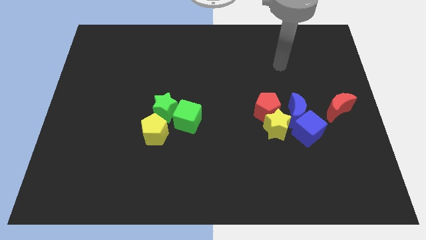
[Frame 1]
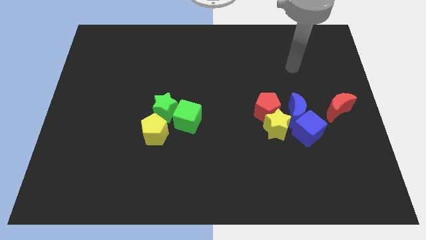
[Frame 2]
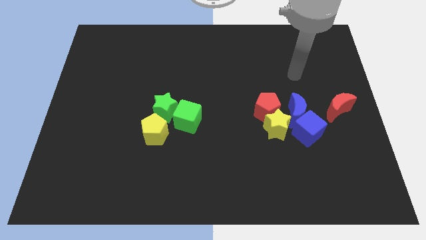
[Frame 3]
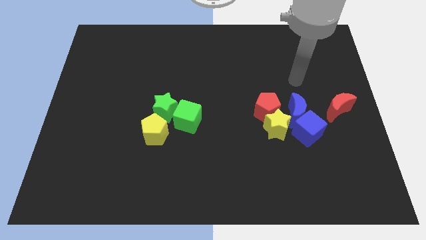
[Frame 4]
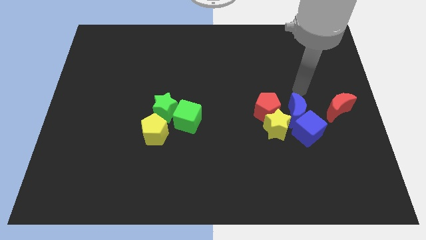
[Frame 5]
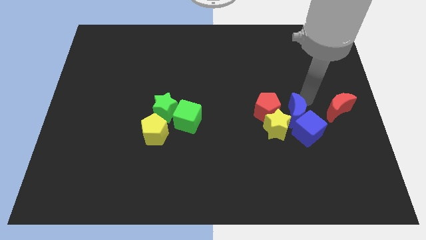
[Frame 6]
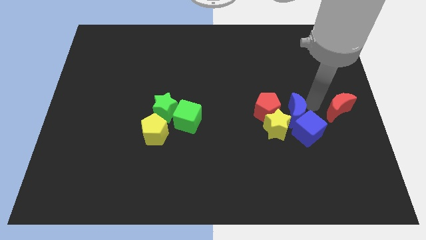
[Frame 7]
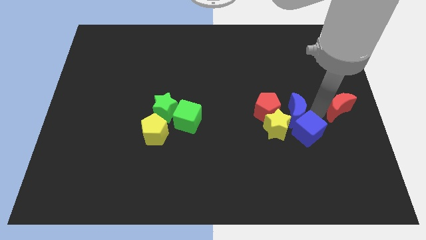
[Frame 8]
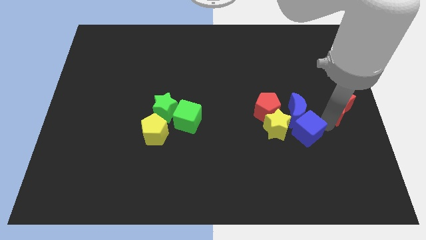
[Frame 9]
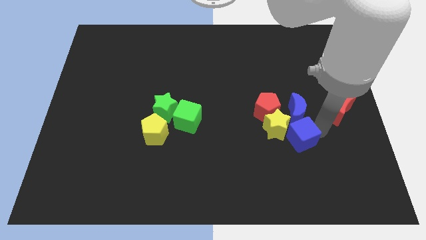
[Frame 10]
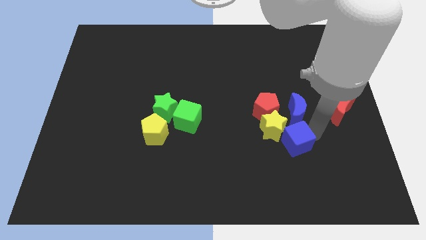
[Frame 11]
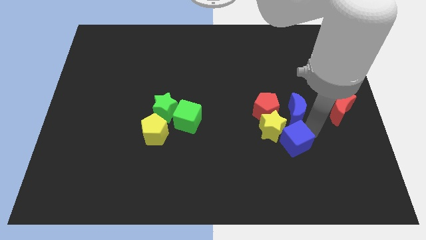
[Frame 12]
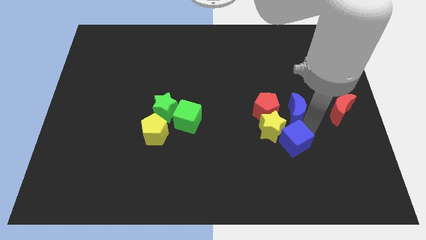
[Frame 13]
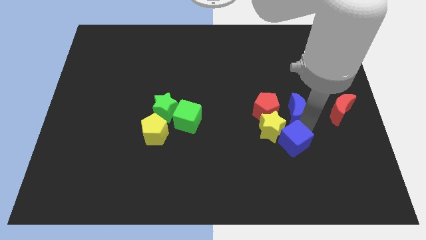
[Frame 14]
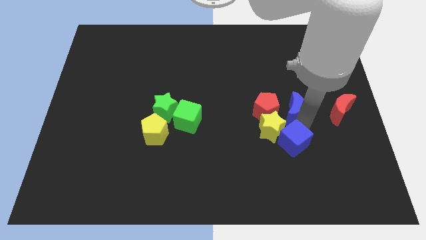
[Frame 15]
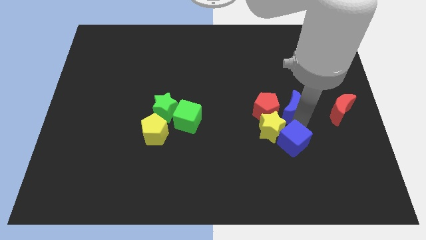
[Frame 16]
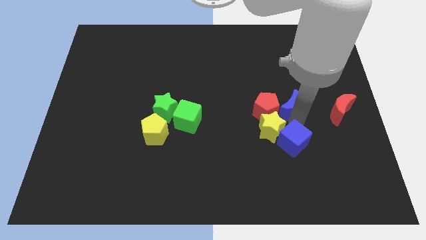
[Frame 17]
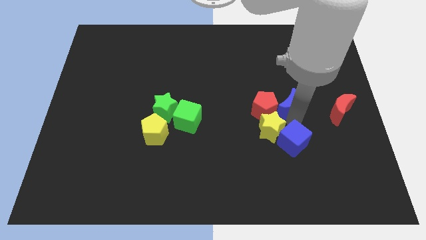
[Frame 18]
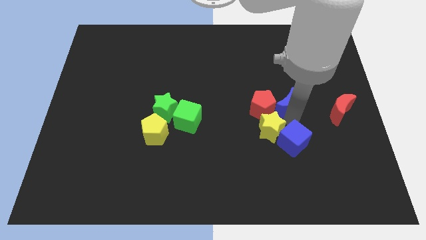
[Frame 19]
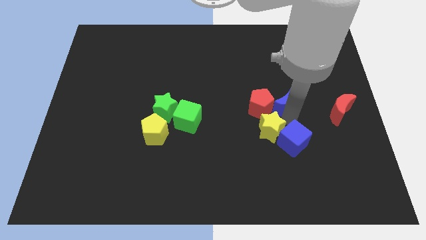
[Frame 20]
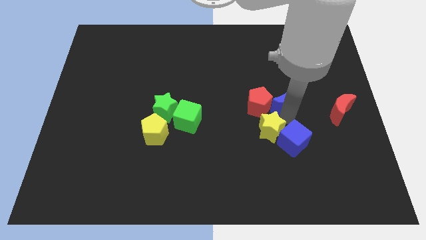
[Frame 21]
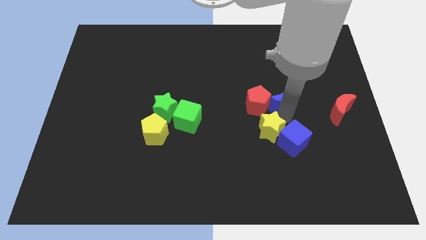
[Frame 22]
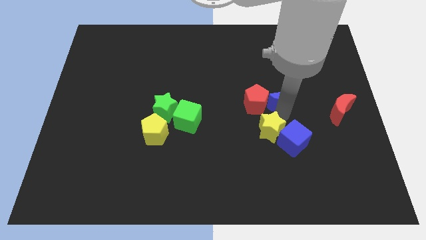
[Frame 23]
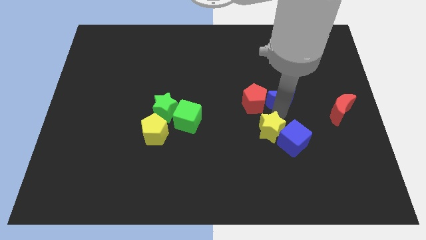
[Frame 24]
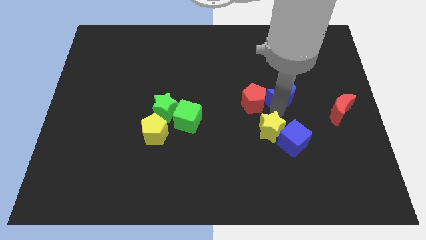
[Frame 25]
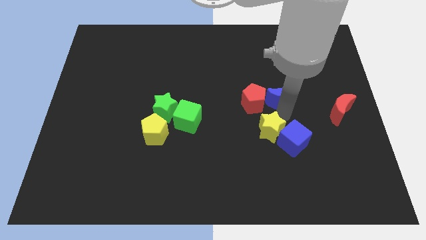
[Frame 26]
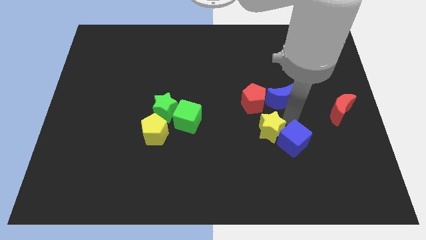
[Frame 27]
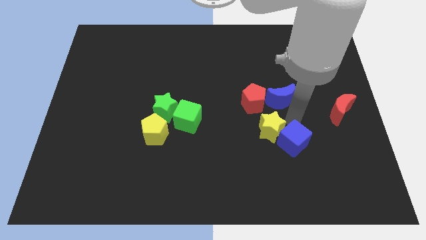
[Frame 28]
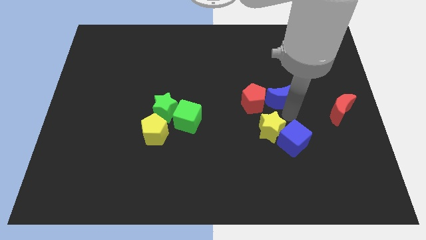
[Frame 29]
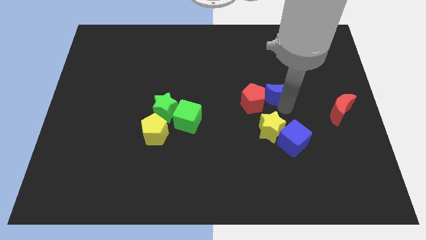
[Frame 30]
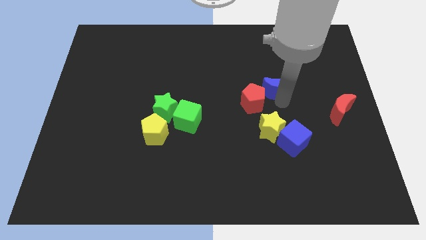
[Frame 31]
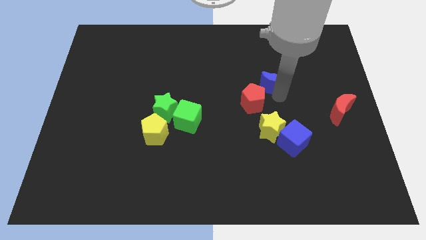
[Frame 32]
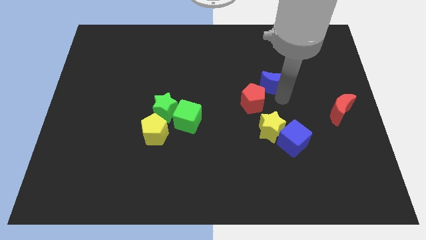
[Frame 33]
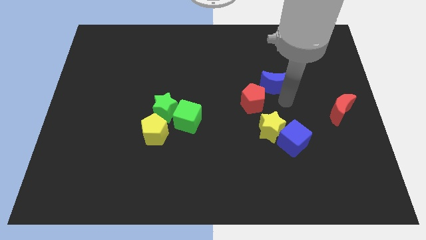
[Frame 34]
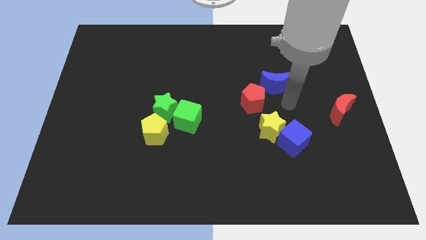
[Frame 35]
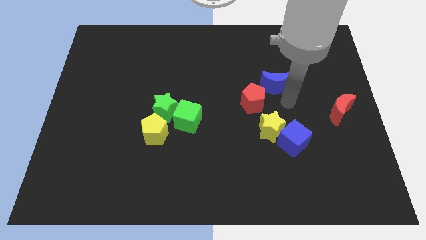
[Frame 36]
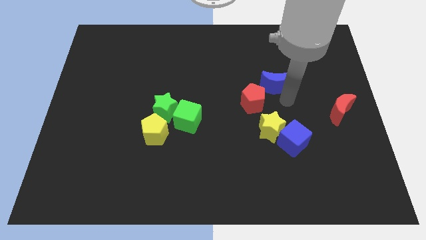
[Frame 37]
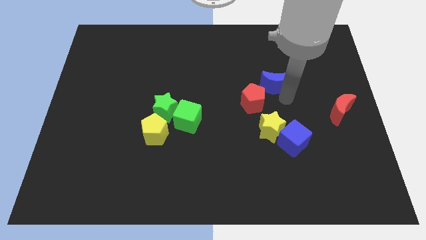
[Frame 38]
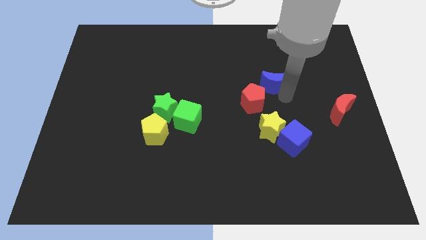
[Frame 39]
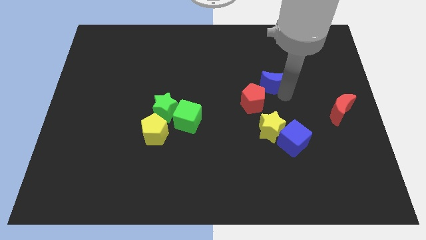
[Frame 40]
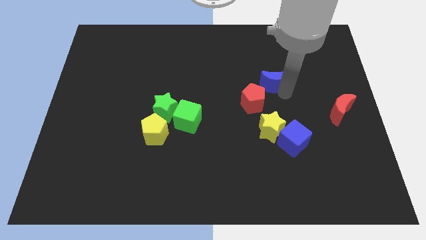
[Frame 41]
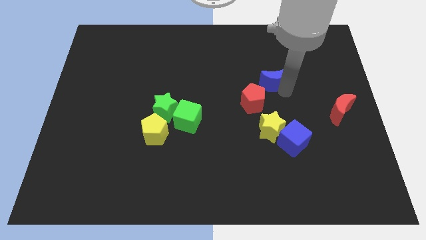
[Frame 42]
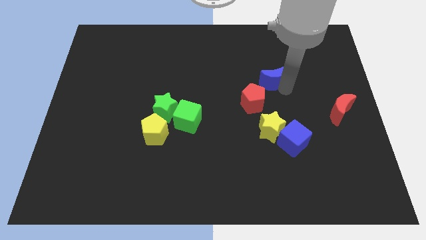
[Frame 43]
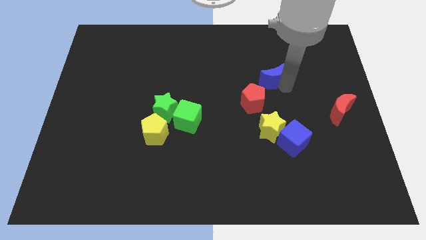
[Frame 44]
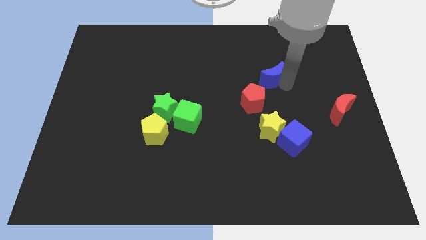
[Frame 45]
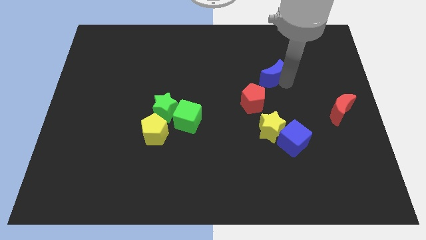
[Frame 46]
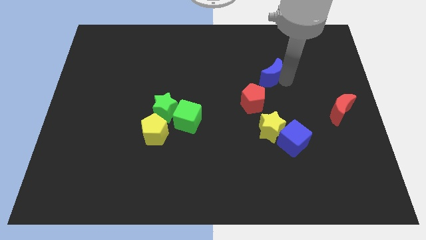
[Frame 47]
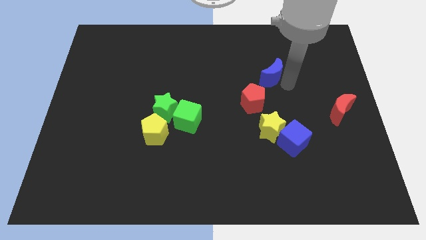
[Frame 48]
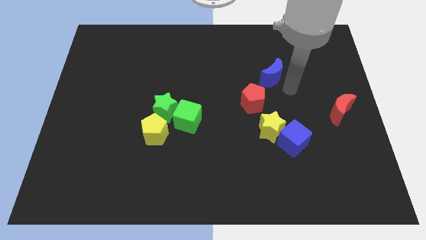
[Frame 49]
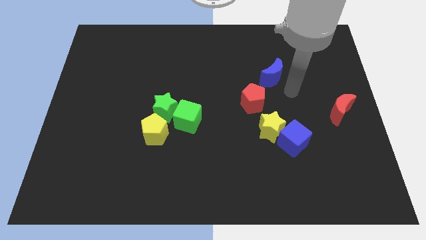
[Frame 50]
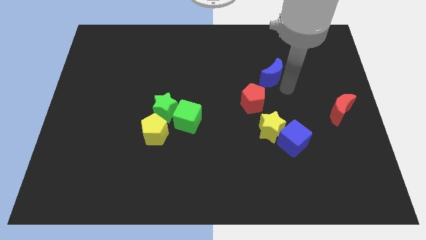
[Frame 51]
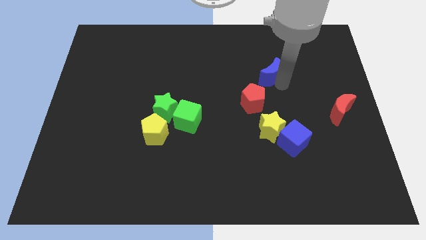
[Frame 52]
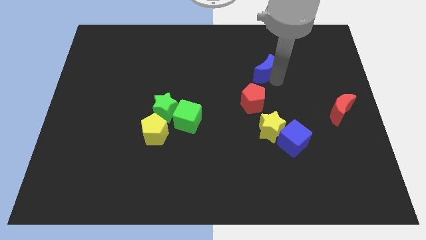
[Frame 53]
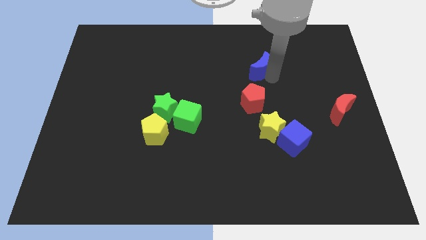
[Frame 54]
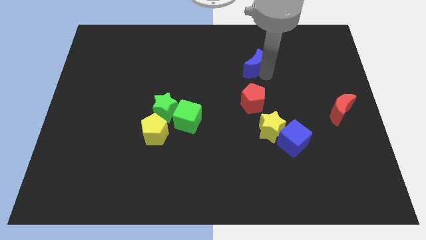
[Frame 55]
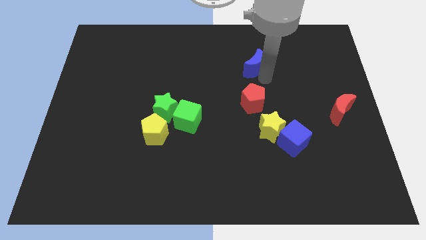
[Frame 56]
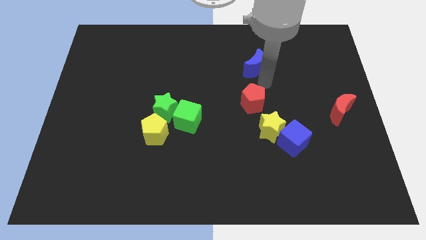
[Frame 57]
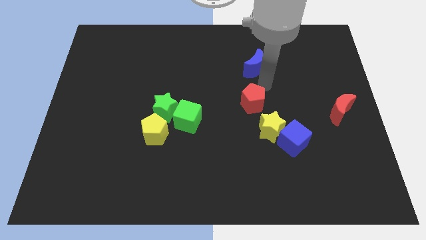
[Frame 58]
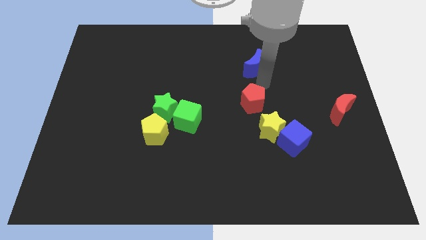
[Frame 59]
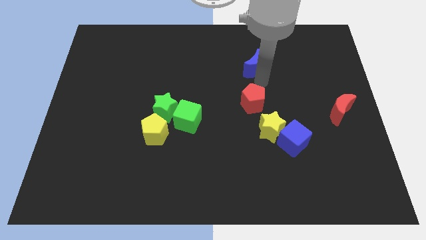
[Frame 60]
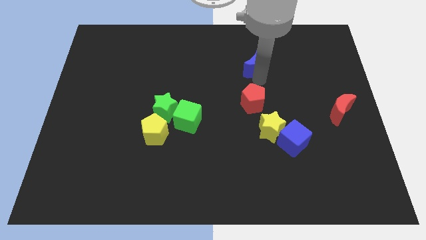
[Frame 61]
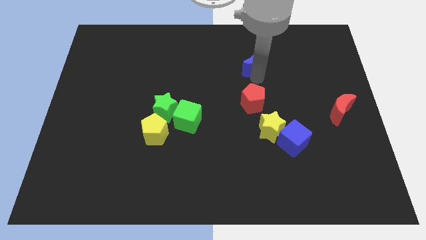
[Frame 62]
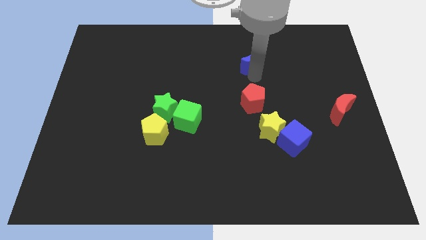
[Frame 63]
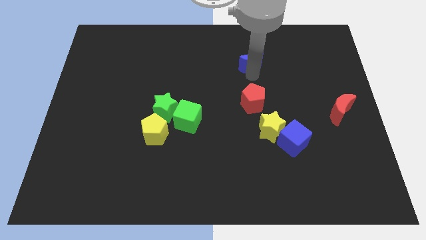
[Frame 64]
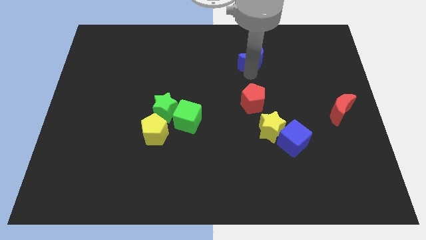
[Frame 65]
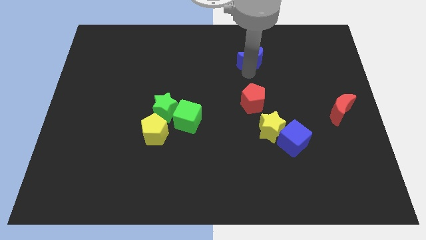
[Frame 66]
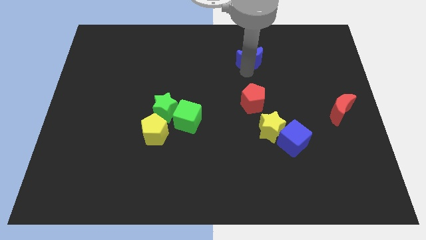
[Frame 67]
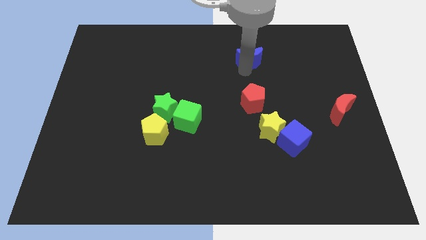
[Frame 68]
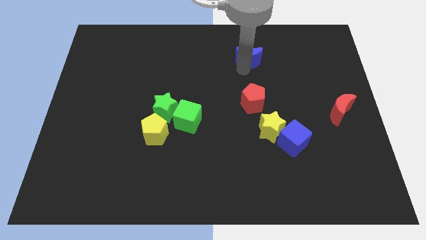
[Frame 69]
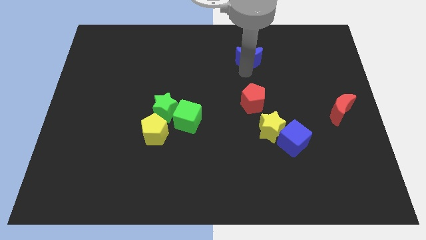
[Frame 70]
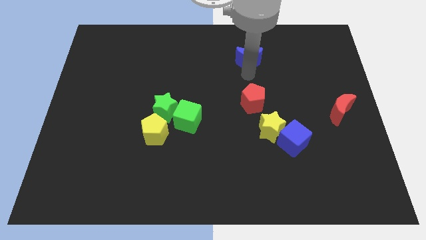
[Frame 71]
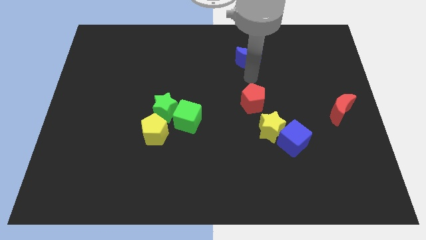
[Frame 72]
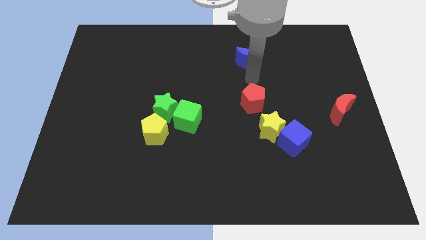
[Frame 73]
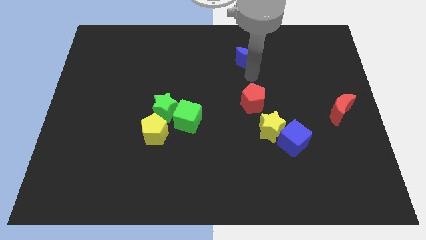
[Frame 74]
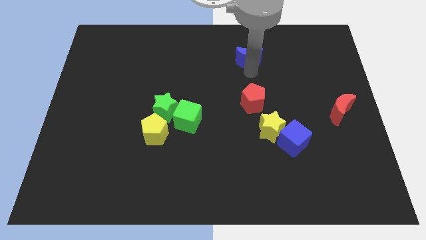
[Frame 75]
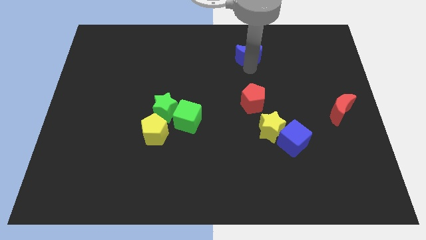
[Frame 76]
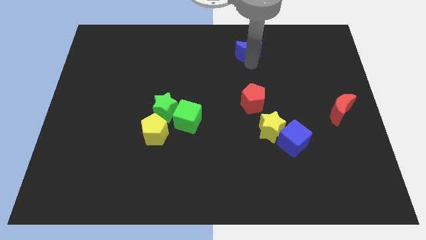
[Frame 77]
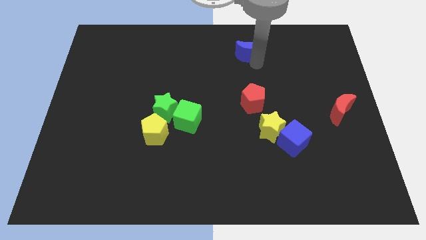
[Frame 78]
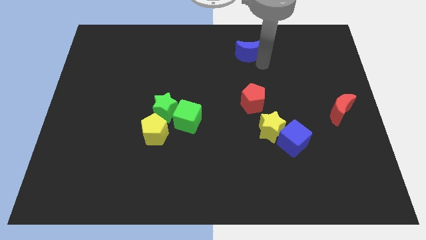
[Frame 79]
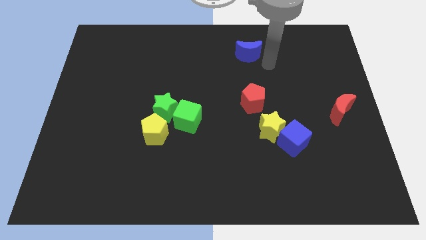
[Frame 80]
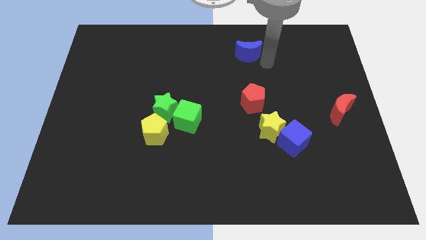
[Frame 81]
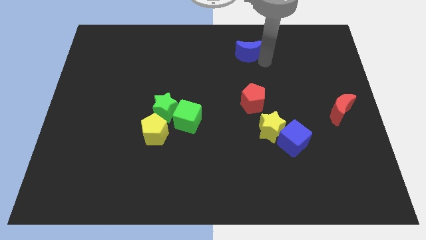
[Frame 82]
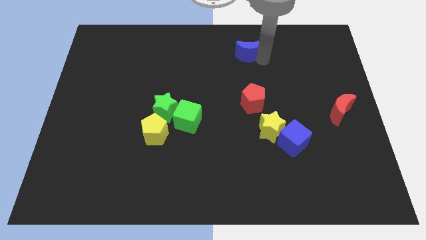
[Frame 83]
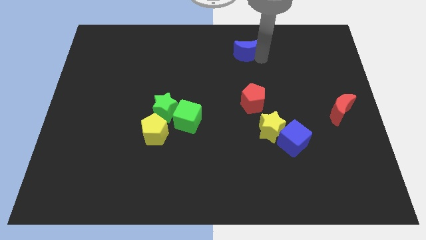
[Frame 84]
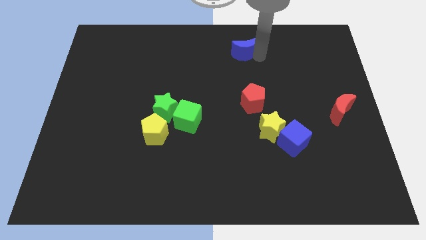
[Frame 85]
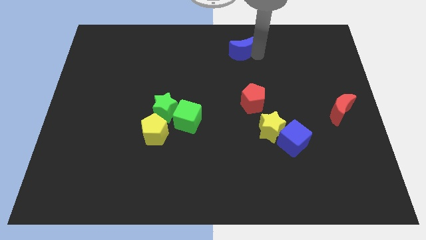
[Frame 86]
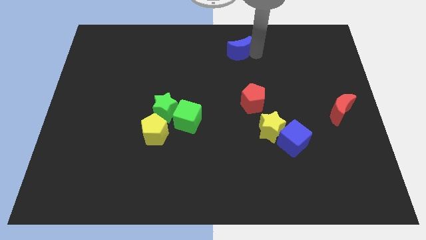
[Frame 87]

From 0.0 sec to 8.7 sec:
move the blue moon to the top
